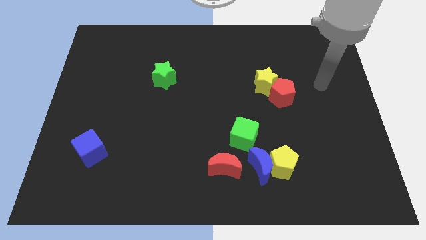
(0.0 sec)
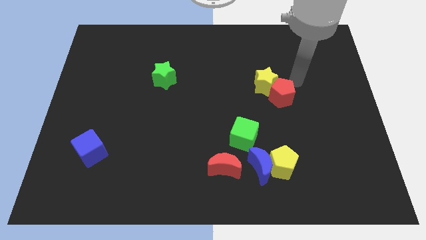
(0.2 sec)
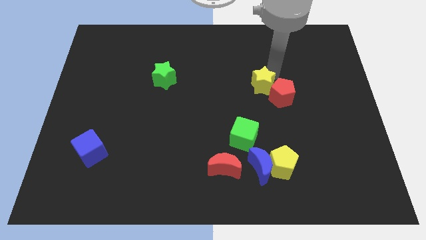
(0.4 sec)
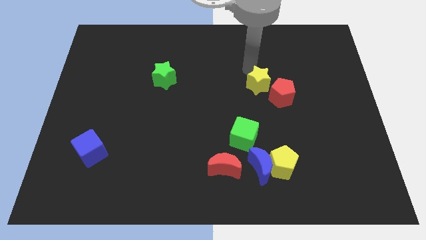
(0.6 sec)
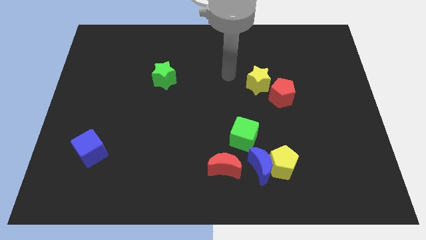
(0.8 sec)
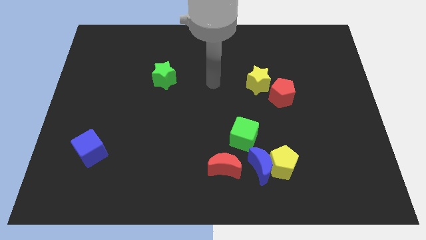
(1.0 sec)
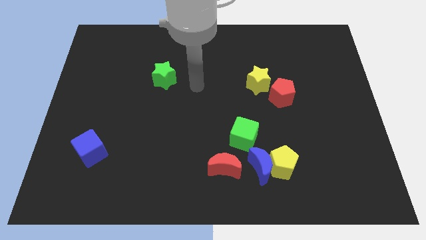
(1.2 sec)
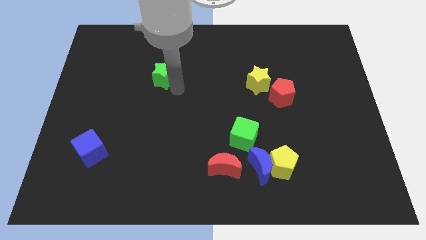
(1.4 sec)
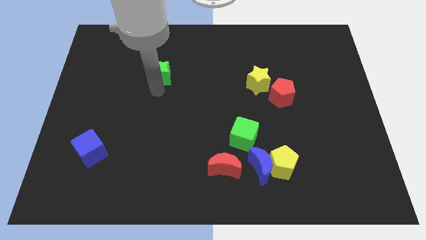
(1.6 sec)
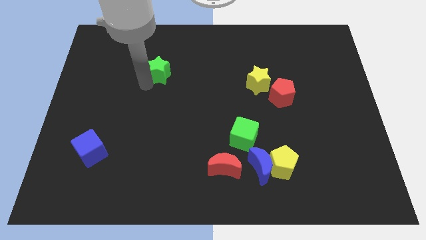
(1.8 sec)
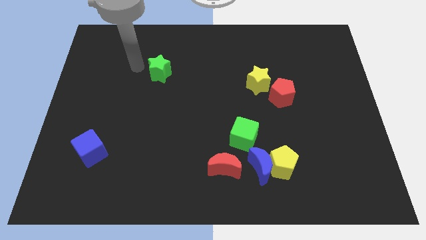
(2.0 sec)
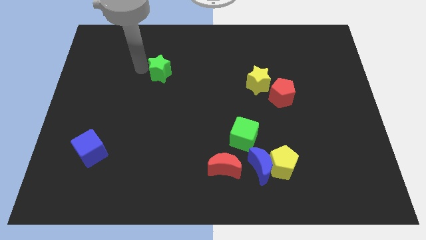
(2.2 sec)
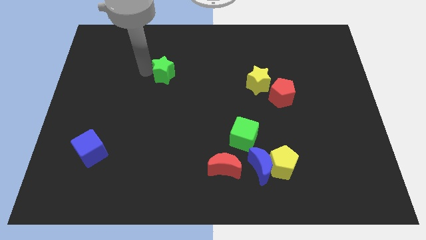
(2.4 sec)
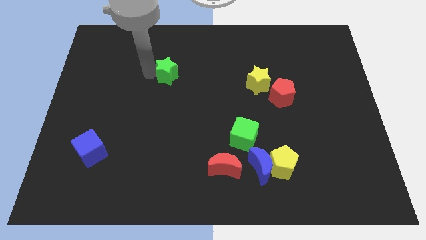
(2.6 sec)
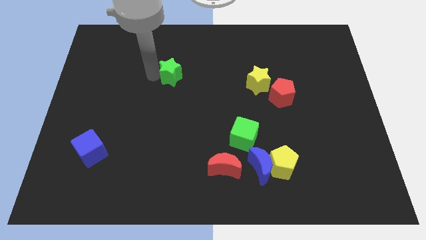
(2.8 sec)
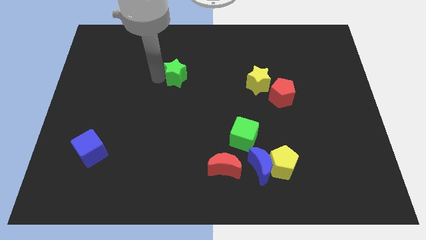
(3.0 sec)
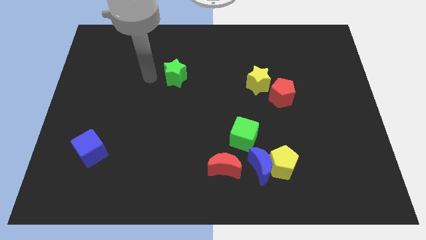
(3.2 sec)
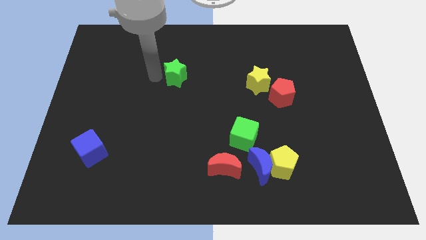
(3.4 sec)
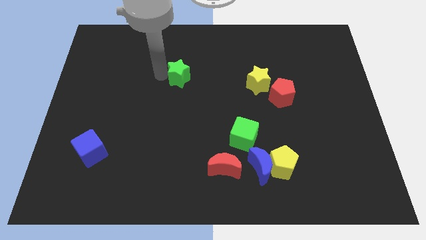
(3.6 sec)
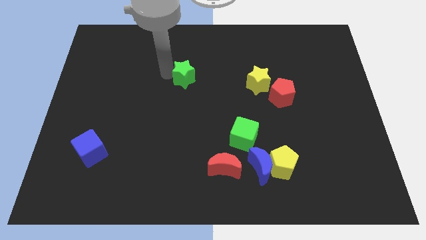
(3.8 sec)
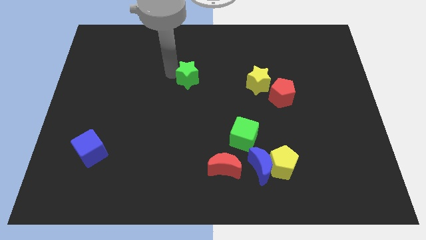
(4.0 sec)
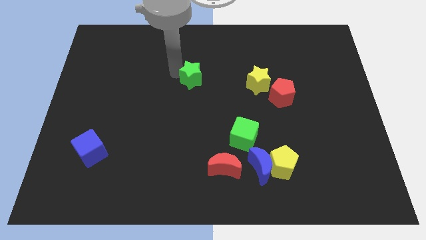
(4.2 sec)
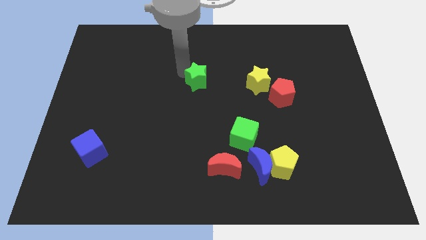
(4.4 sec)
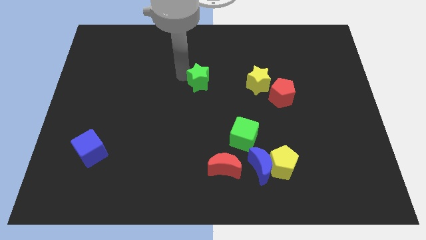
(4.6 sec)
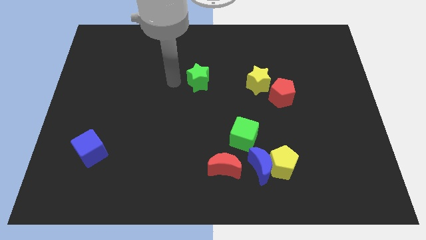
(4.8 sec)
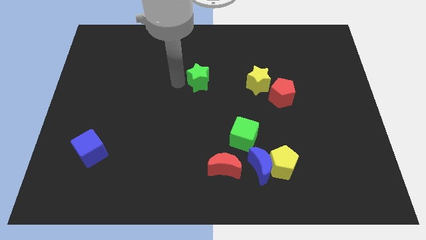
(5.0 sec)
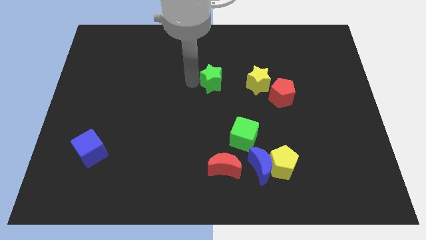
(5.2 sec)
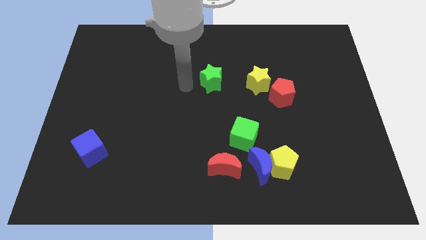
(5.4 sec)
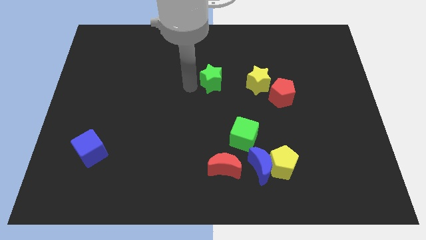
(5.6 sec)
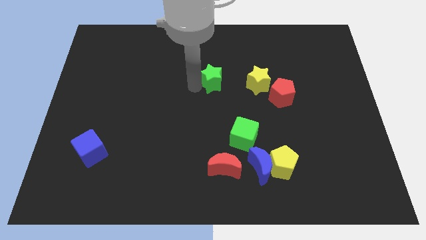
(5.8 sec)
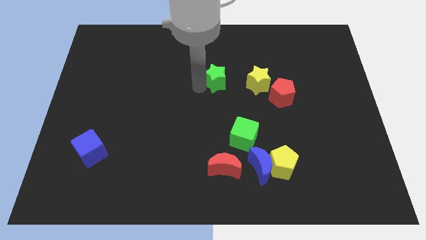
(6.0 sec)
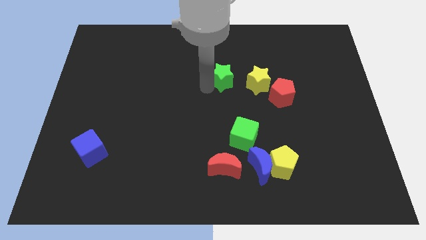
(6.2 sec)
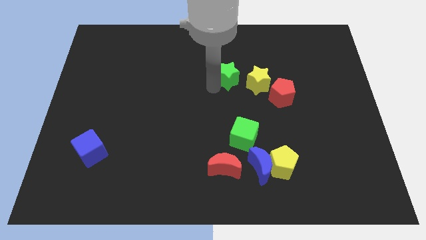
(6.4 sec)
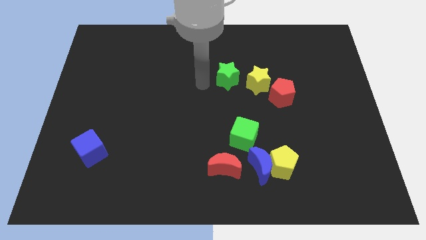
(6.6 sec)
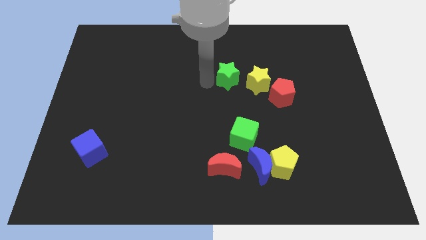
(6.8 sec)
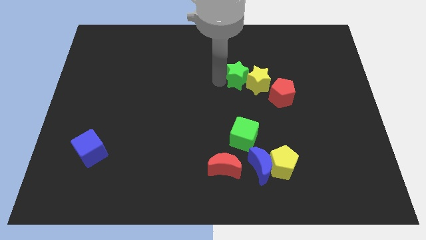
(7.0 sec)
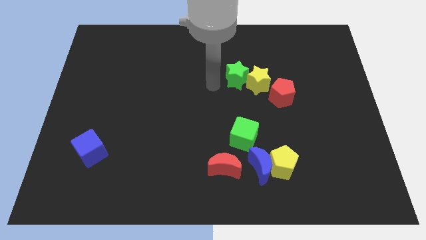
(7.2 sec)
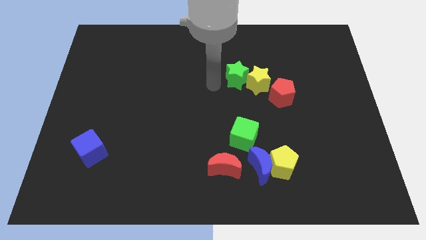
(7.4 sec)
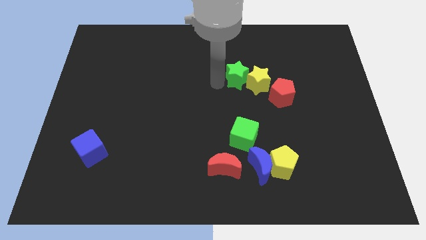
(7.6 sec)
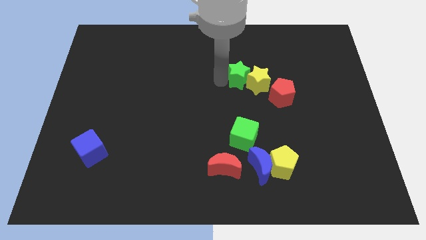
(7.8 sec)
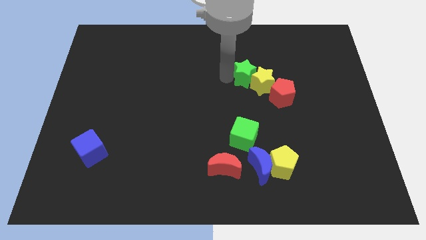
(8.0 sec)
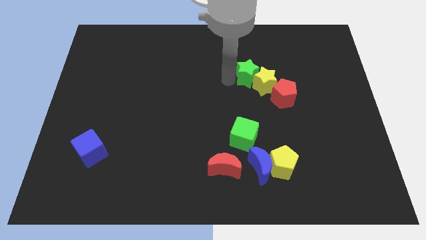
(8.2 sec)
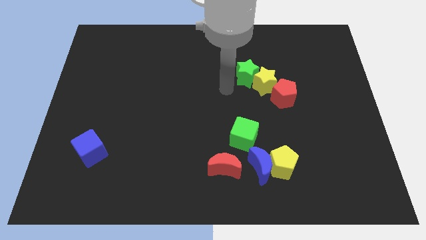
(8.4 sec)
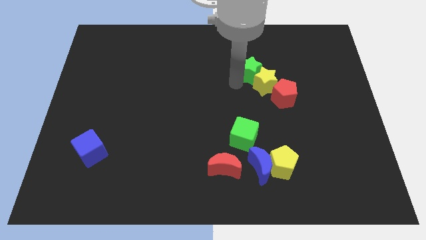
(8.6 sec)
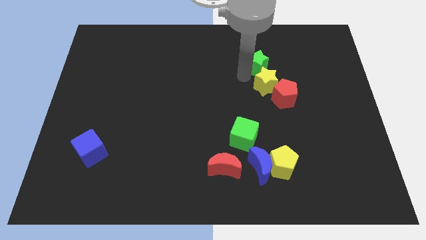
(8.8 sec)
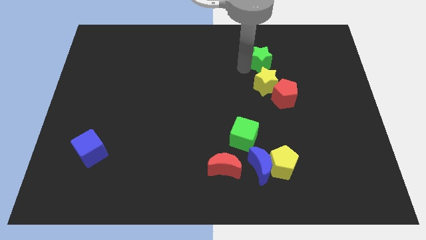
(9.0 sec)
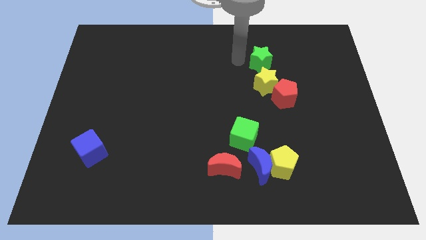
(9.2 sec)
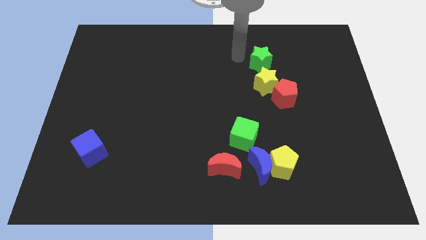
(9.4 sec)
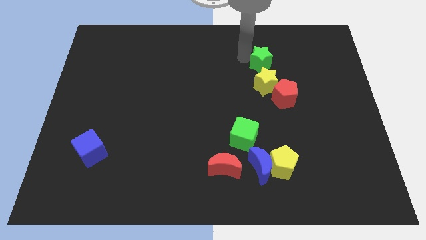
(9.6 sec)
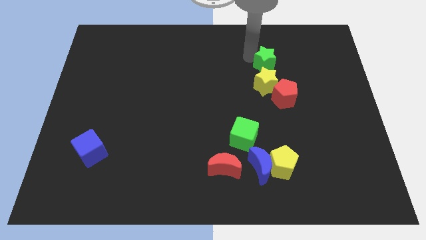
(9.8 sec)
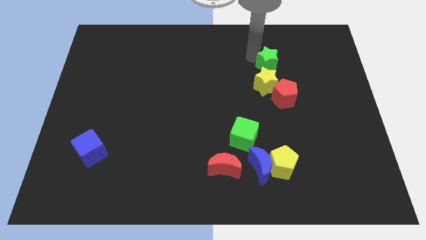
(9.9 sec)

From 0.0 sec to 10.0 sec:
move the green star diagonally up and to the right of the yellow star

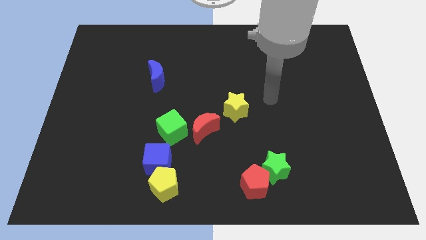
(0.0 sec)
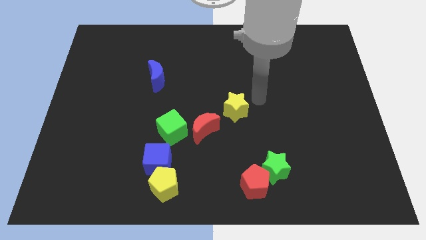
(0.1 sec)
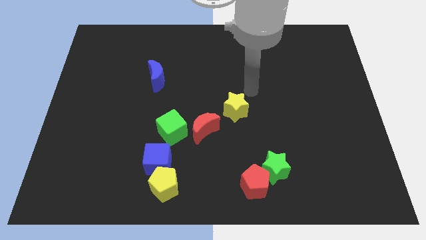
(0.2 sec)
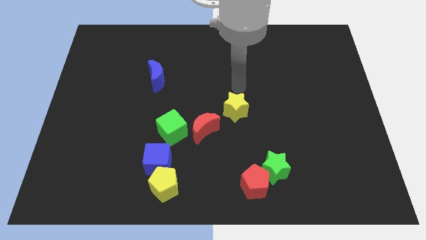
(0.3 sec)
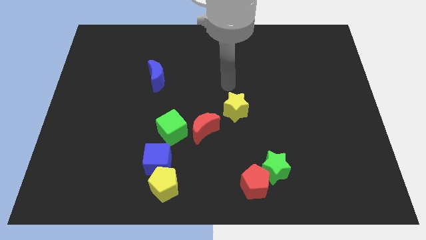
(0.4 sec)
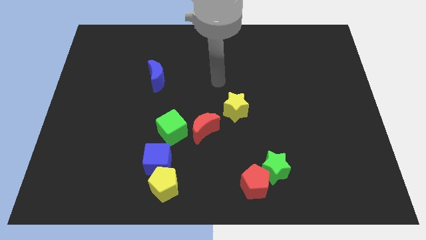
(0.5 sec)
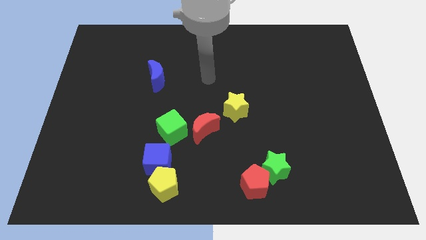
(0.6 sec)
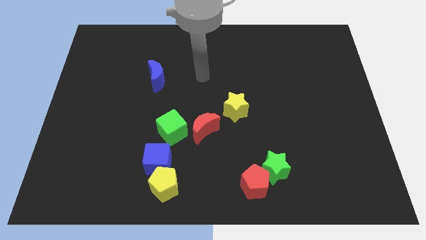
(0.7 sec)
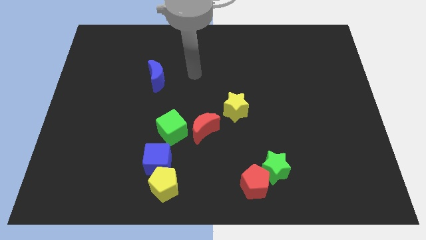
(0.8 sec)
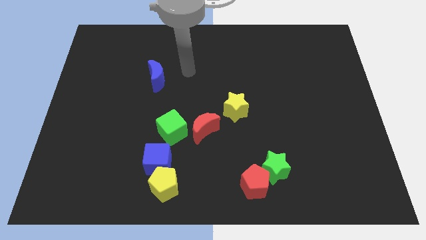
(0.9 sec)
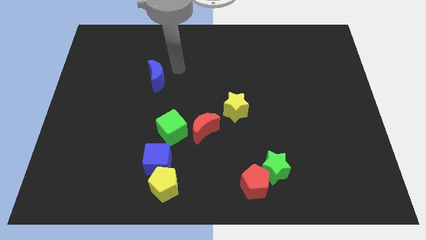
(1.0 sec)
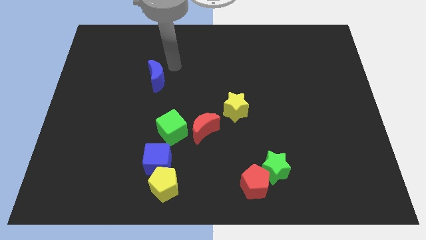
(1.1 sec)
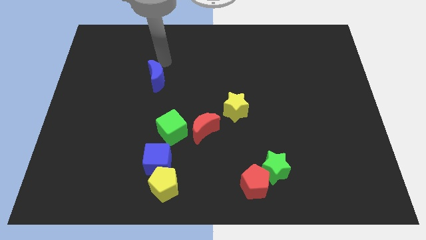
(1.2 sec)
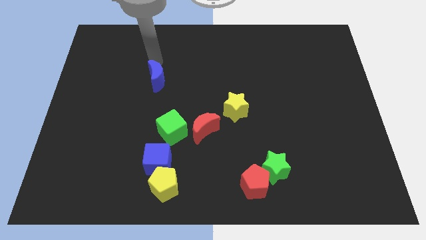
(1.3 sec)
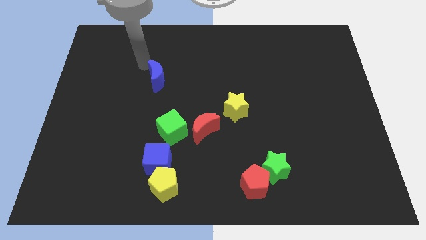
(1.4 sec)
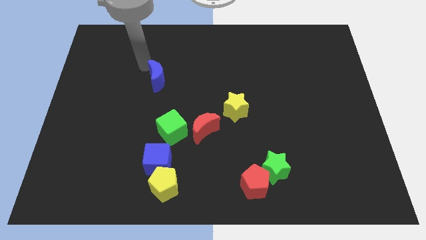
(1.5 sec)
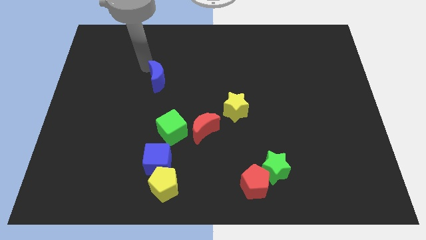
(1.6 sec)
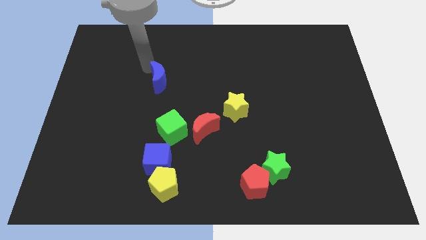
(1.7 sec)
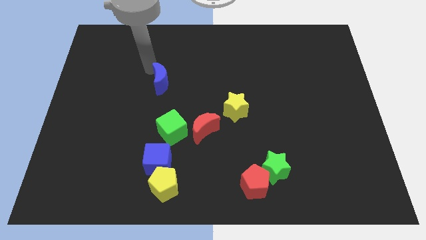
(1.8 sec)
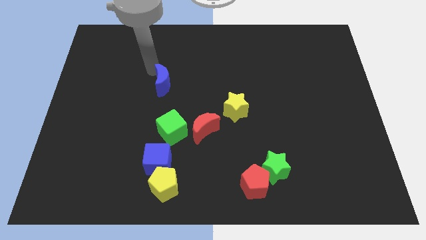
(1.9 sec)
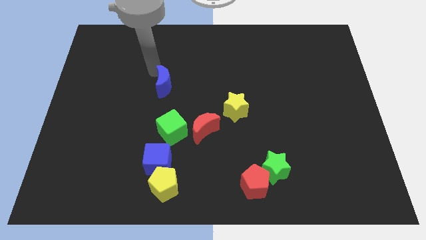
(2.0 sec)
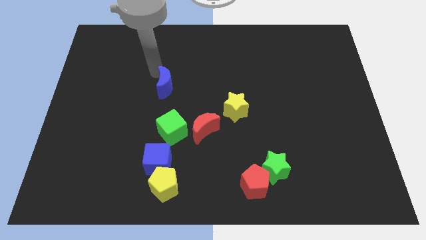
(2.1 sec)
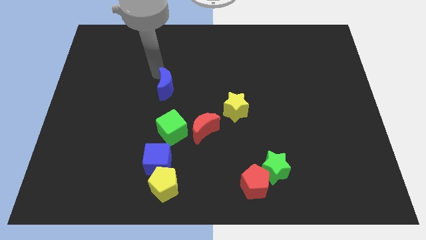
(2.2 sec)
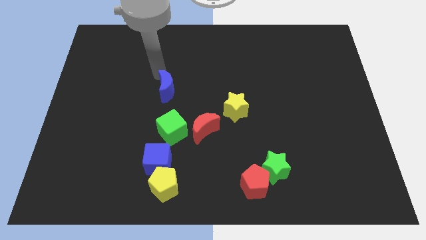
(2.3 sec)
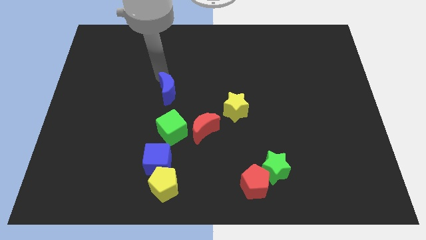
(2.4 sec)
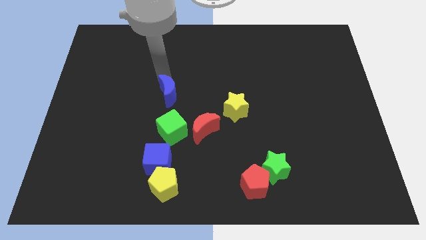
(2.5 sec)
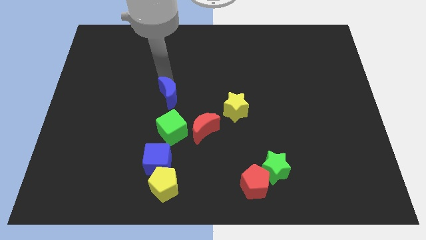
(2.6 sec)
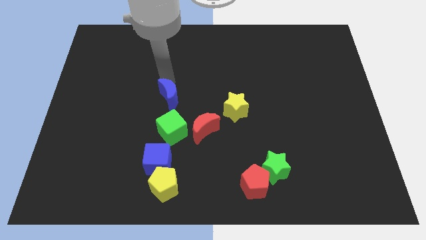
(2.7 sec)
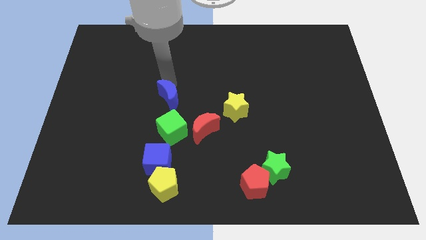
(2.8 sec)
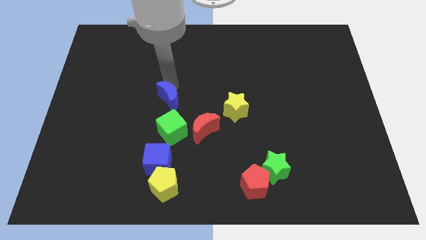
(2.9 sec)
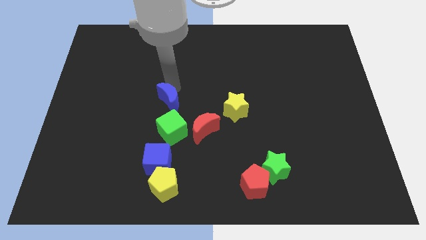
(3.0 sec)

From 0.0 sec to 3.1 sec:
push the blue moon to the left of the yellow star
